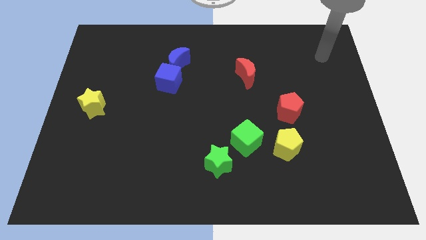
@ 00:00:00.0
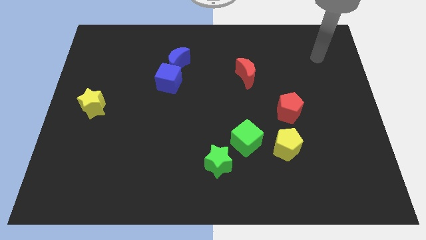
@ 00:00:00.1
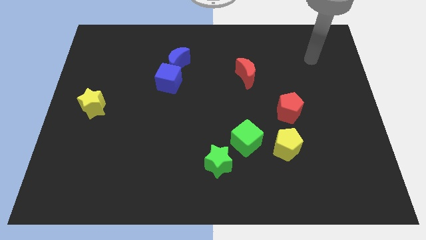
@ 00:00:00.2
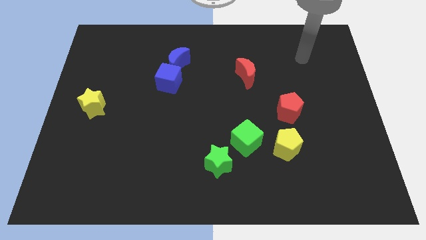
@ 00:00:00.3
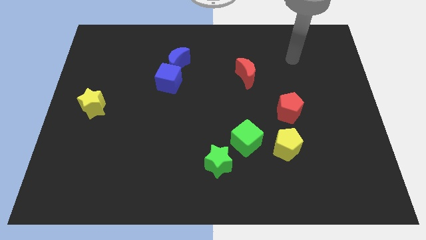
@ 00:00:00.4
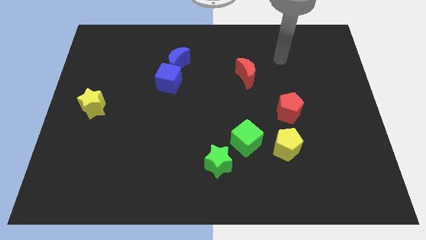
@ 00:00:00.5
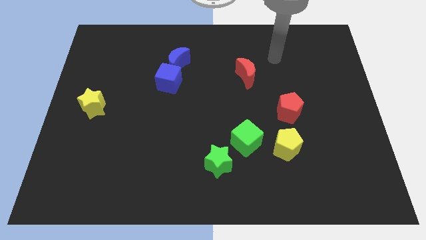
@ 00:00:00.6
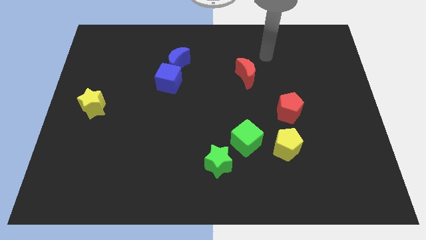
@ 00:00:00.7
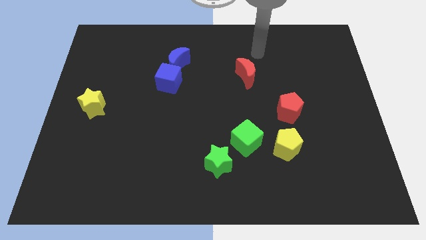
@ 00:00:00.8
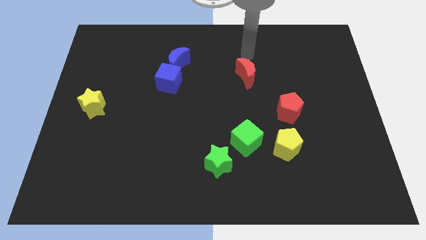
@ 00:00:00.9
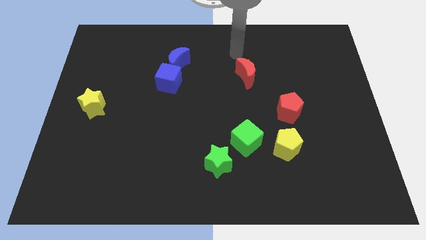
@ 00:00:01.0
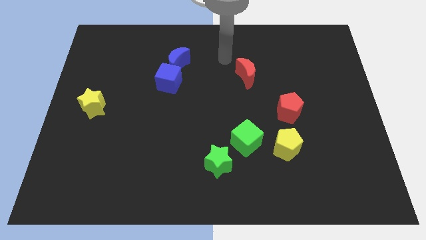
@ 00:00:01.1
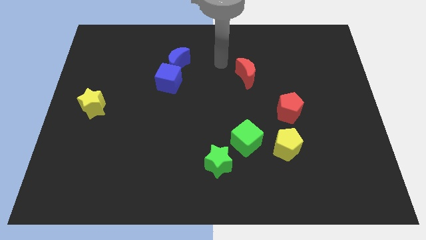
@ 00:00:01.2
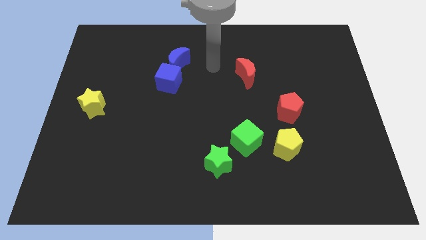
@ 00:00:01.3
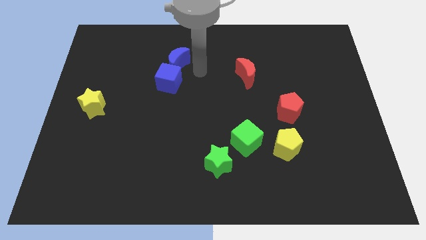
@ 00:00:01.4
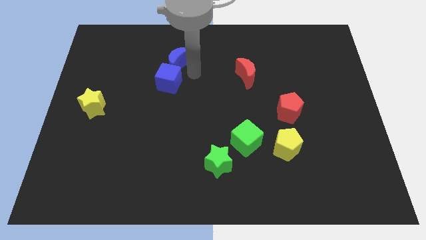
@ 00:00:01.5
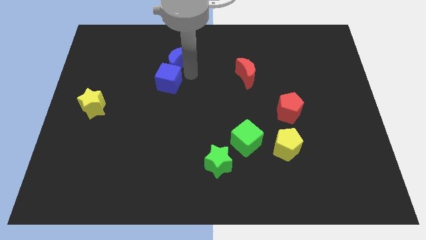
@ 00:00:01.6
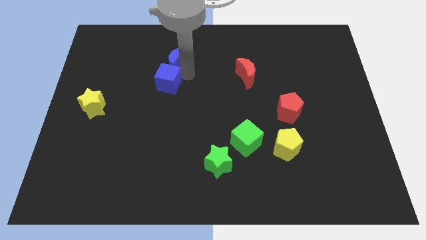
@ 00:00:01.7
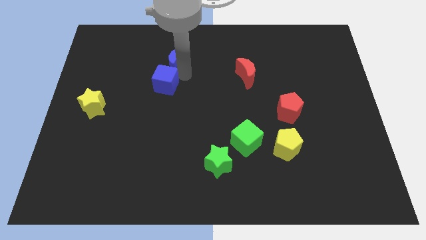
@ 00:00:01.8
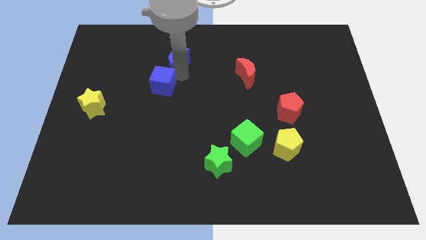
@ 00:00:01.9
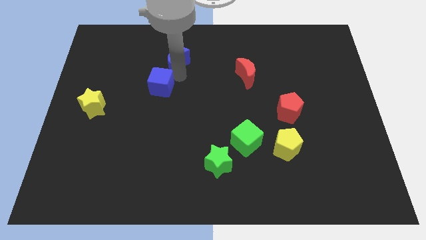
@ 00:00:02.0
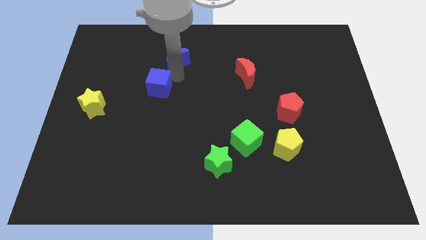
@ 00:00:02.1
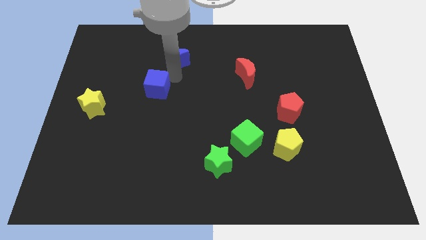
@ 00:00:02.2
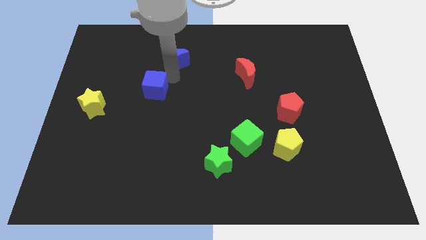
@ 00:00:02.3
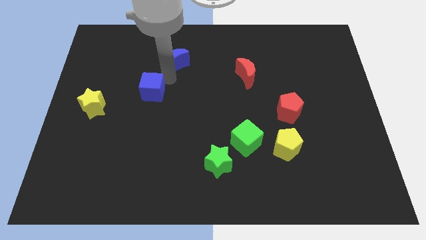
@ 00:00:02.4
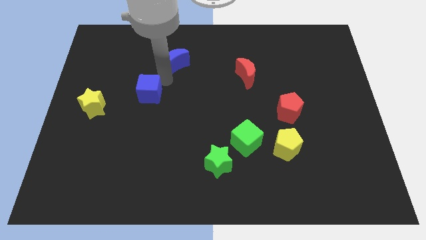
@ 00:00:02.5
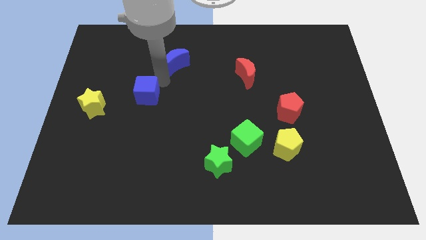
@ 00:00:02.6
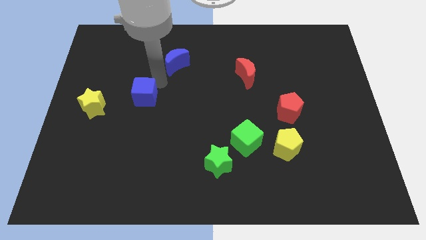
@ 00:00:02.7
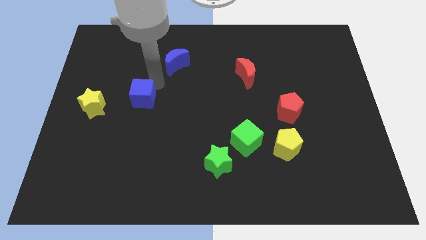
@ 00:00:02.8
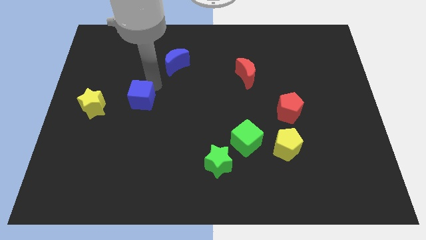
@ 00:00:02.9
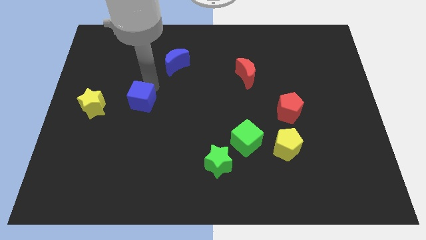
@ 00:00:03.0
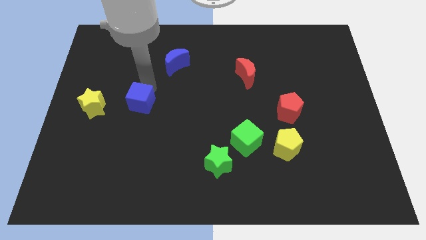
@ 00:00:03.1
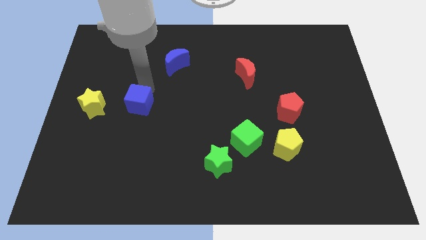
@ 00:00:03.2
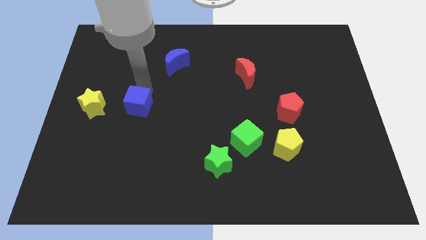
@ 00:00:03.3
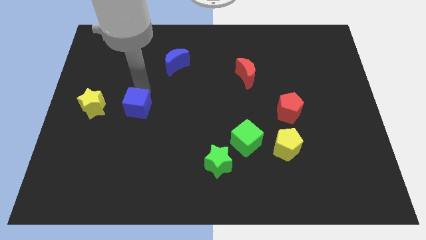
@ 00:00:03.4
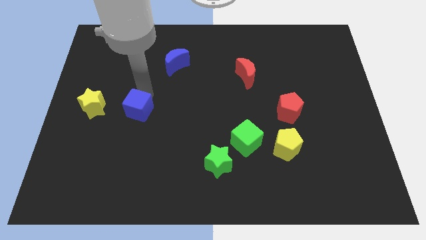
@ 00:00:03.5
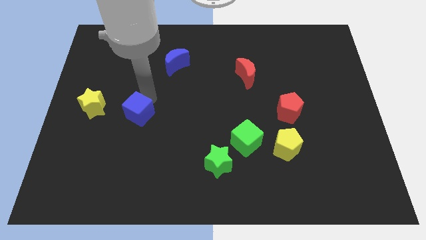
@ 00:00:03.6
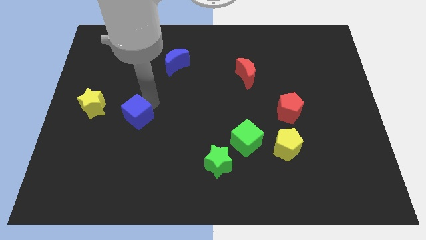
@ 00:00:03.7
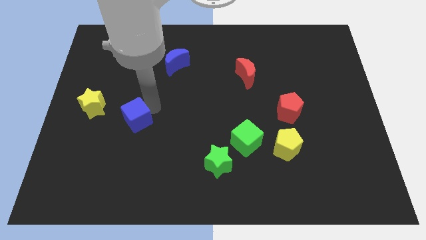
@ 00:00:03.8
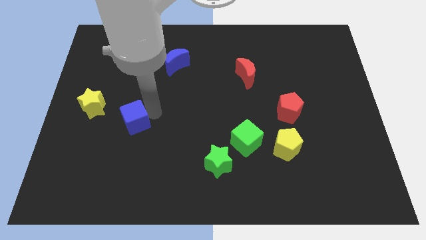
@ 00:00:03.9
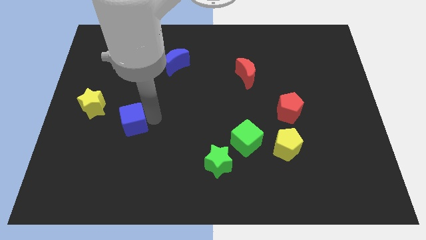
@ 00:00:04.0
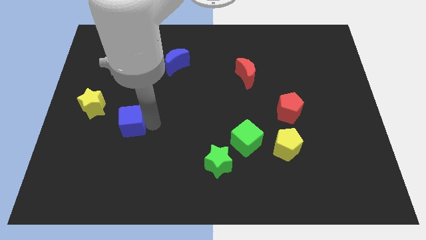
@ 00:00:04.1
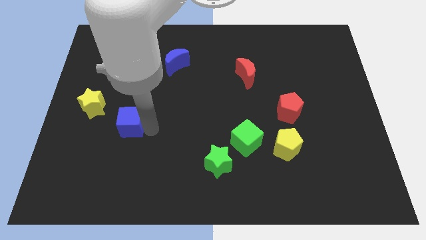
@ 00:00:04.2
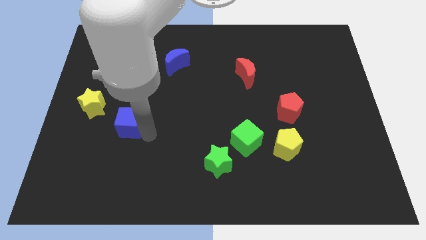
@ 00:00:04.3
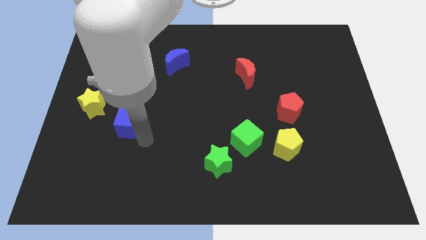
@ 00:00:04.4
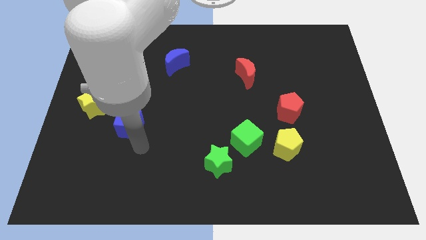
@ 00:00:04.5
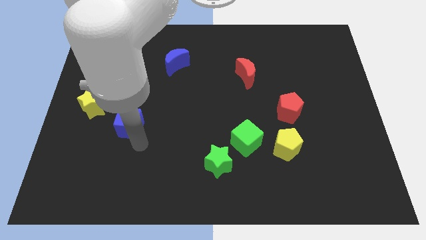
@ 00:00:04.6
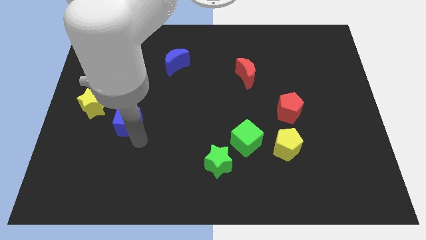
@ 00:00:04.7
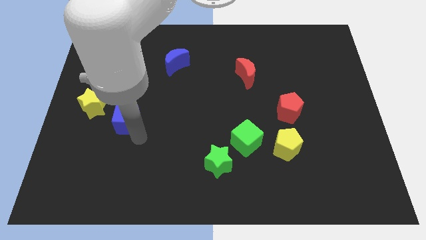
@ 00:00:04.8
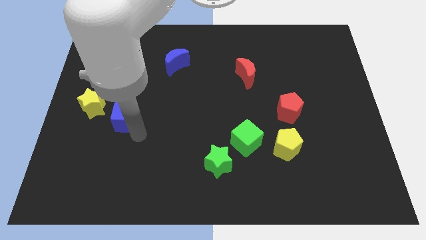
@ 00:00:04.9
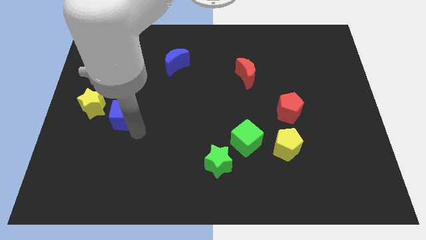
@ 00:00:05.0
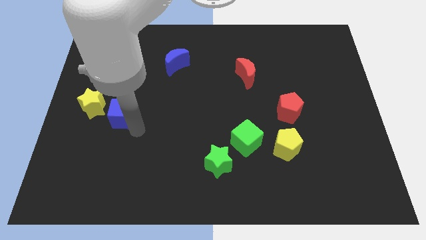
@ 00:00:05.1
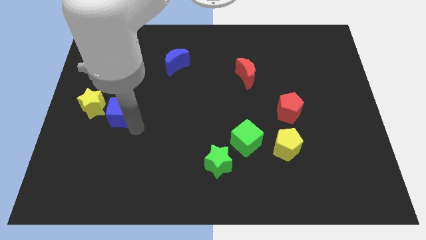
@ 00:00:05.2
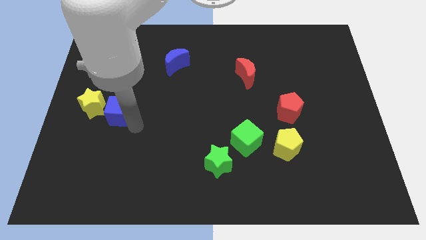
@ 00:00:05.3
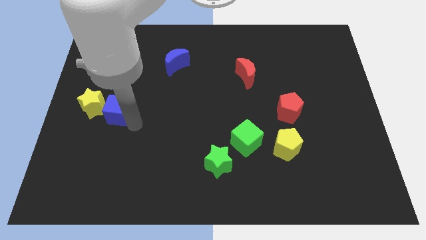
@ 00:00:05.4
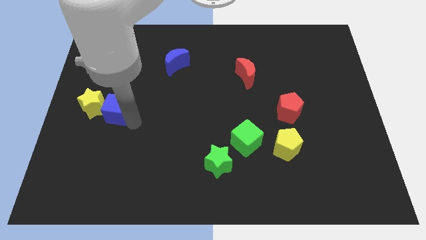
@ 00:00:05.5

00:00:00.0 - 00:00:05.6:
slide the blue cube towards the yellow star
